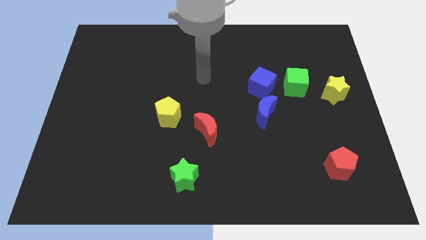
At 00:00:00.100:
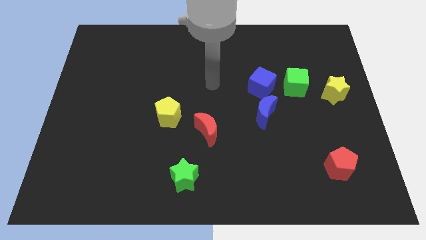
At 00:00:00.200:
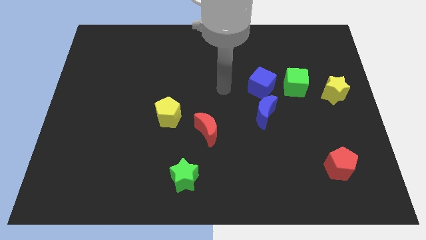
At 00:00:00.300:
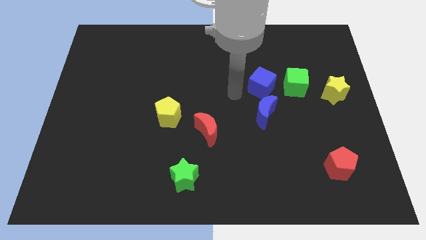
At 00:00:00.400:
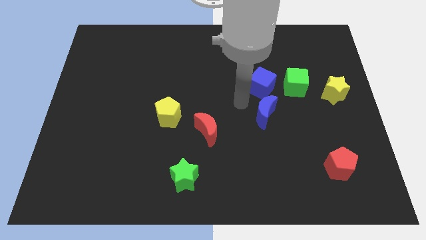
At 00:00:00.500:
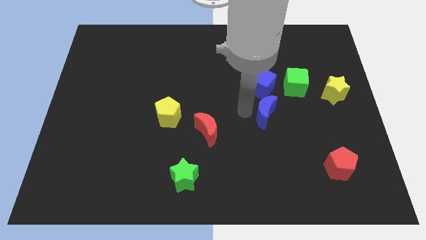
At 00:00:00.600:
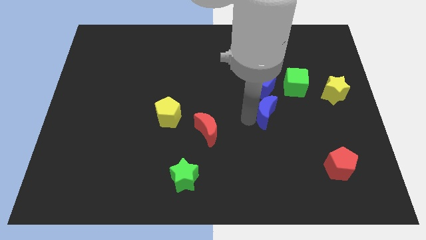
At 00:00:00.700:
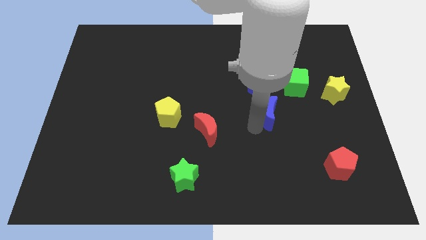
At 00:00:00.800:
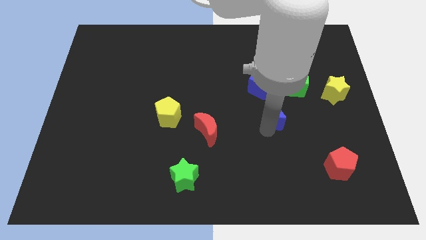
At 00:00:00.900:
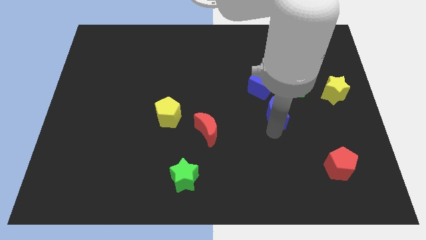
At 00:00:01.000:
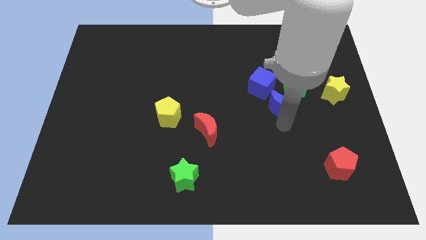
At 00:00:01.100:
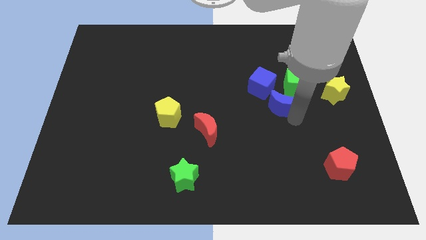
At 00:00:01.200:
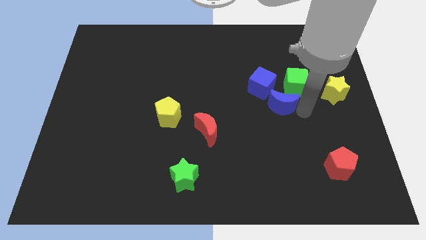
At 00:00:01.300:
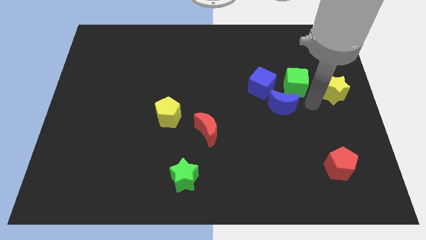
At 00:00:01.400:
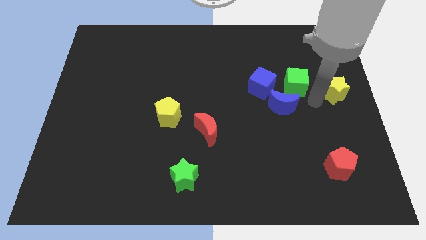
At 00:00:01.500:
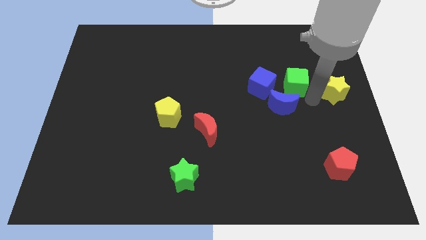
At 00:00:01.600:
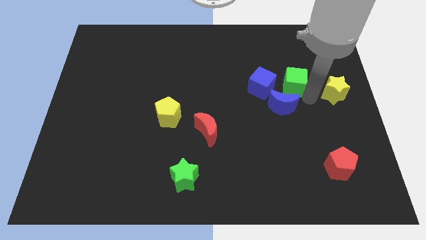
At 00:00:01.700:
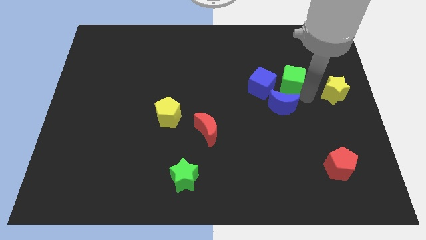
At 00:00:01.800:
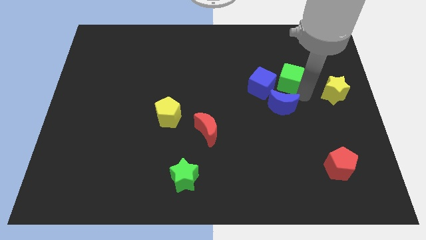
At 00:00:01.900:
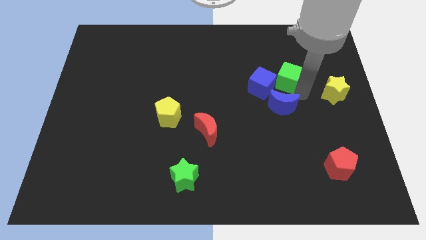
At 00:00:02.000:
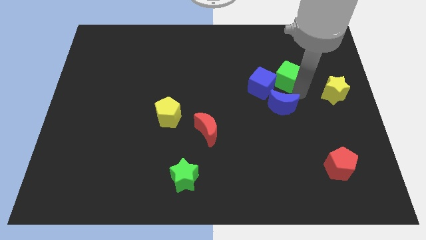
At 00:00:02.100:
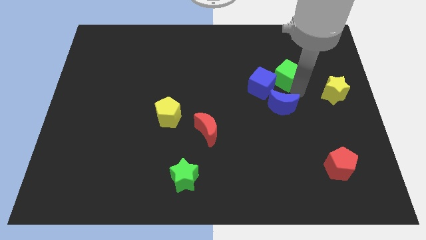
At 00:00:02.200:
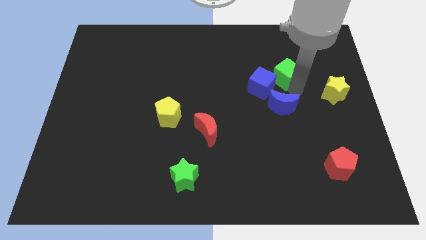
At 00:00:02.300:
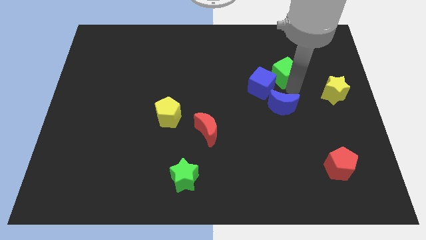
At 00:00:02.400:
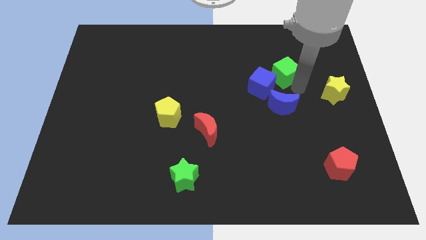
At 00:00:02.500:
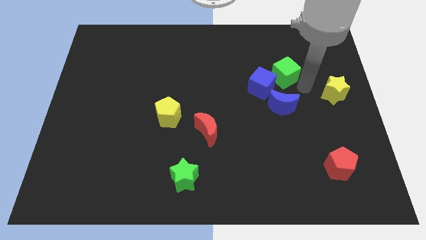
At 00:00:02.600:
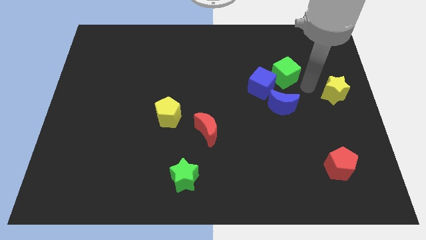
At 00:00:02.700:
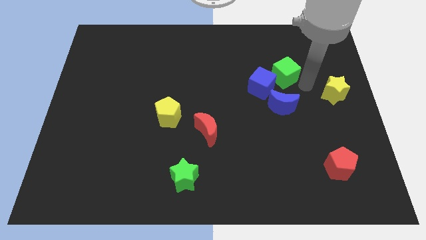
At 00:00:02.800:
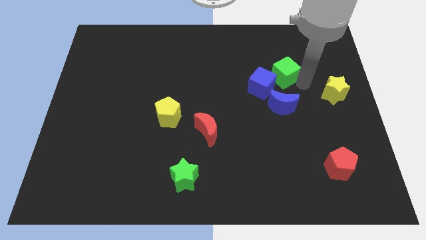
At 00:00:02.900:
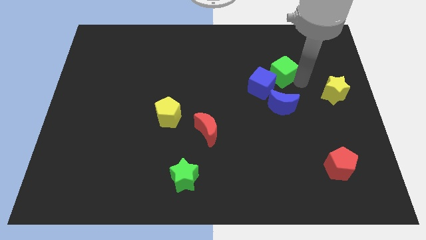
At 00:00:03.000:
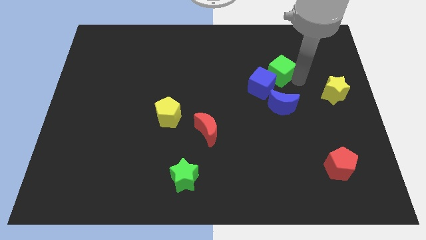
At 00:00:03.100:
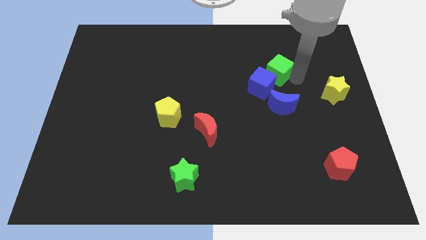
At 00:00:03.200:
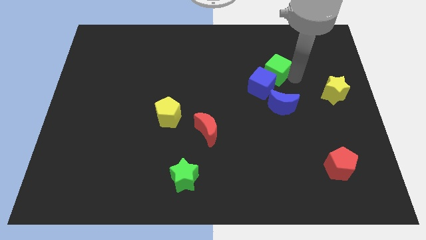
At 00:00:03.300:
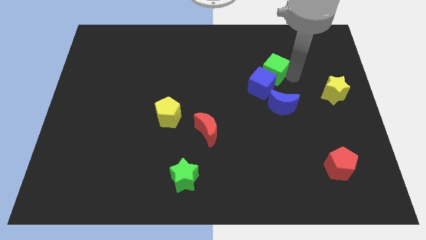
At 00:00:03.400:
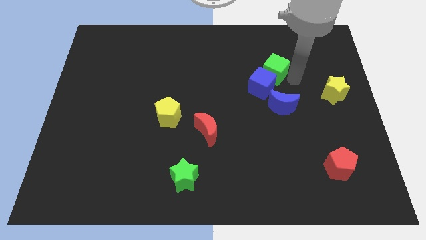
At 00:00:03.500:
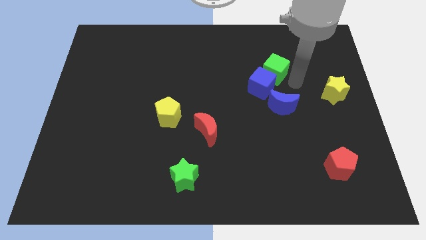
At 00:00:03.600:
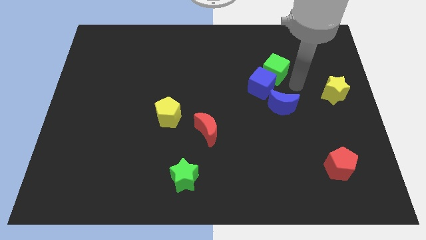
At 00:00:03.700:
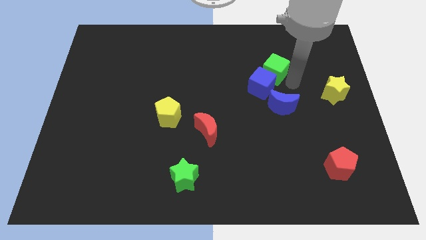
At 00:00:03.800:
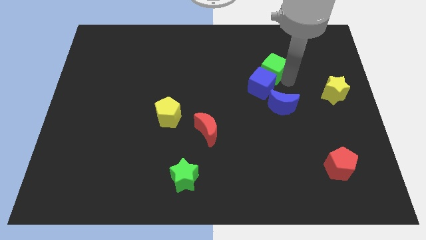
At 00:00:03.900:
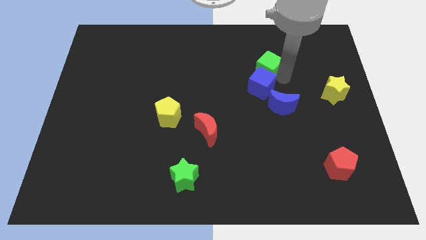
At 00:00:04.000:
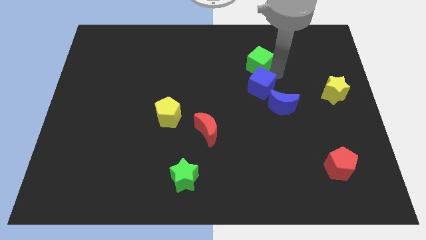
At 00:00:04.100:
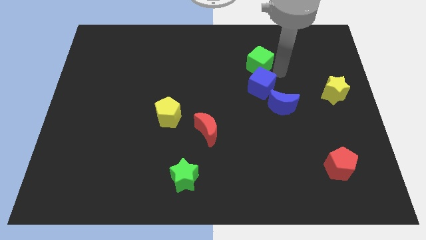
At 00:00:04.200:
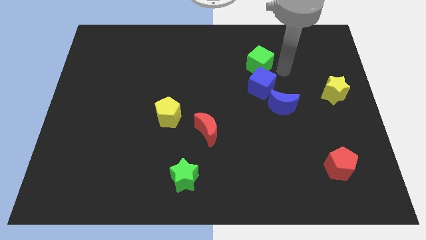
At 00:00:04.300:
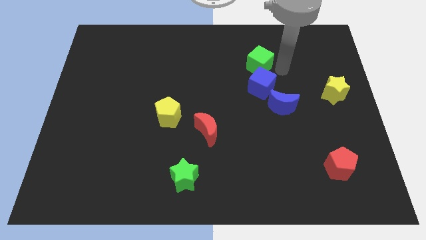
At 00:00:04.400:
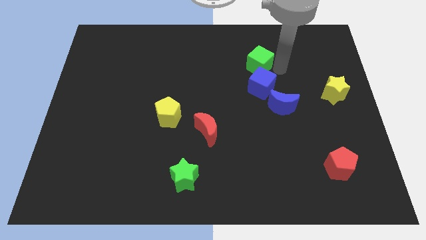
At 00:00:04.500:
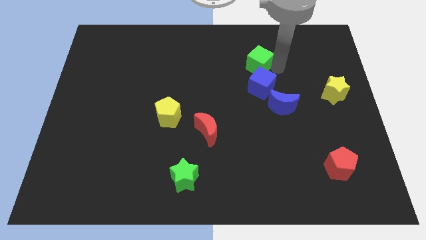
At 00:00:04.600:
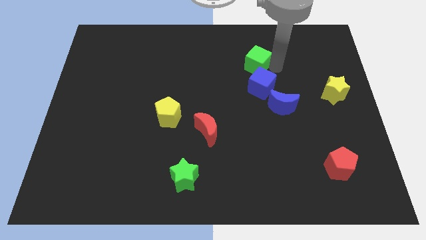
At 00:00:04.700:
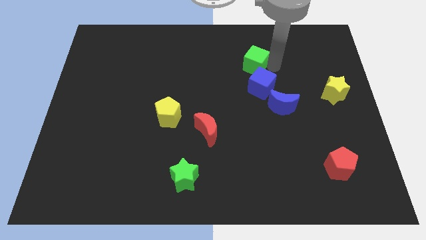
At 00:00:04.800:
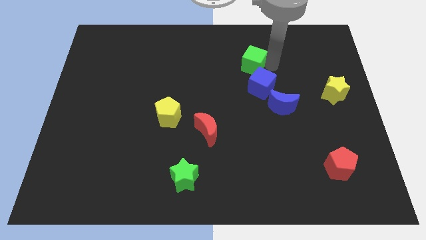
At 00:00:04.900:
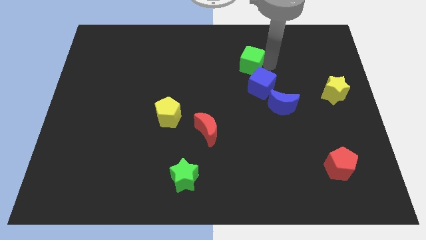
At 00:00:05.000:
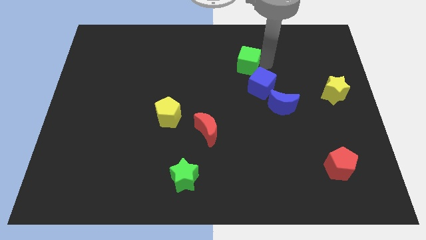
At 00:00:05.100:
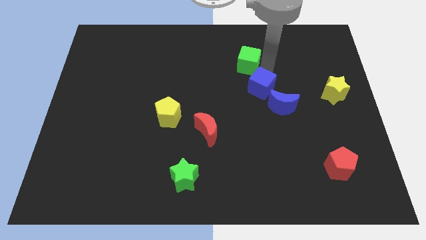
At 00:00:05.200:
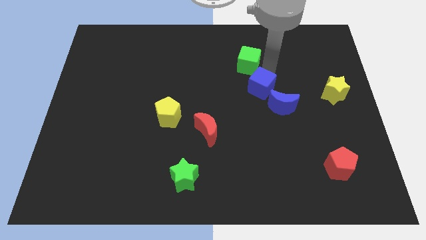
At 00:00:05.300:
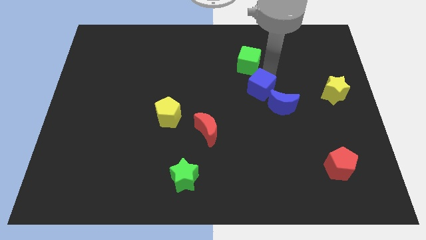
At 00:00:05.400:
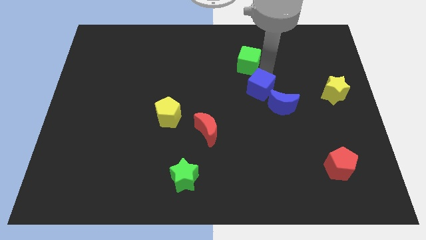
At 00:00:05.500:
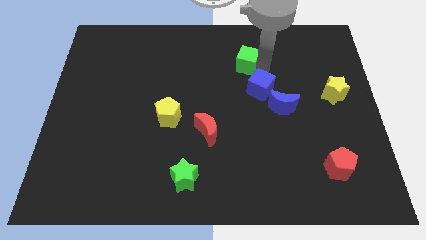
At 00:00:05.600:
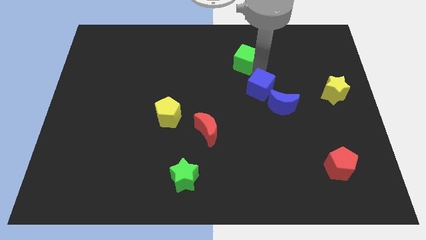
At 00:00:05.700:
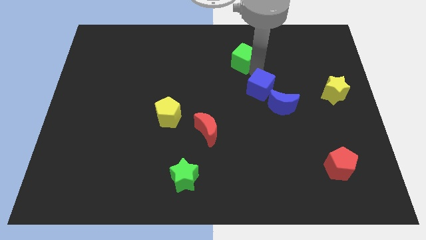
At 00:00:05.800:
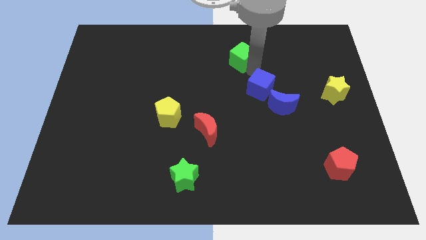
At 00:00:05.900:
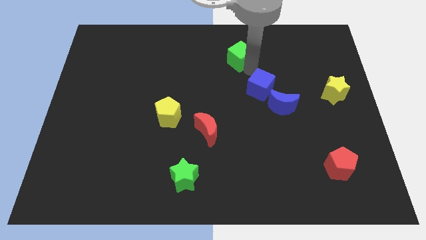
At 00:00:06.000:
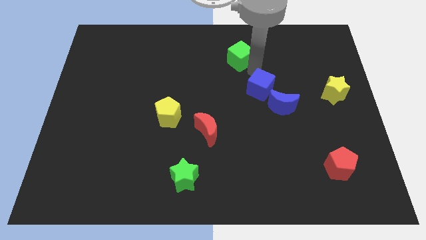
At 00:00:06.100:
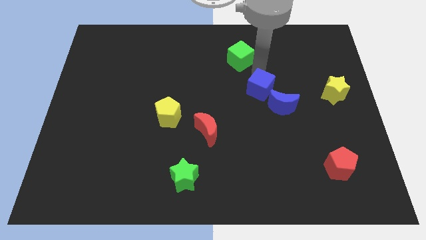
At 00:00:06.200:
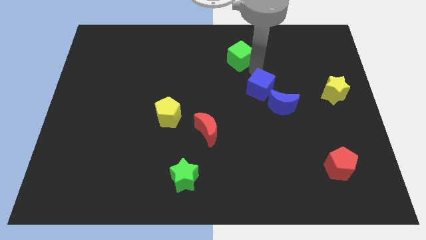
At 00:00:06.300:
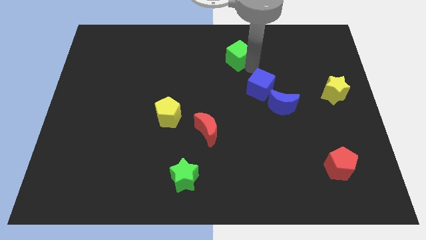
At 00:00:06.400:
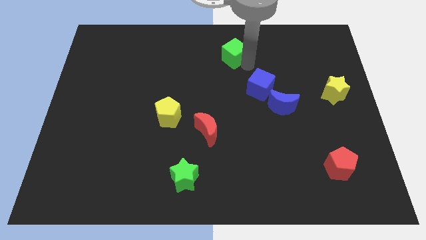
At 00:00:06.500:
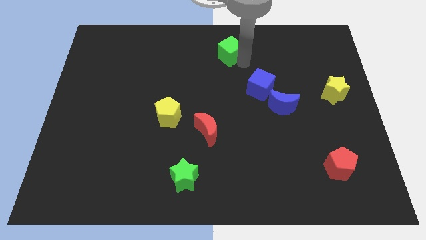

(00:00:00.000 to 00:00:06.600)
push the green cube to the towards your base
